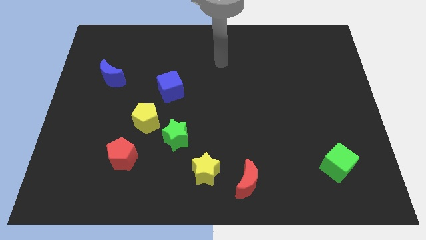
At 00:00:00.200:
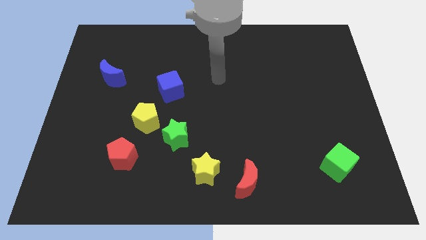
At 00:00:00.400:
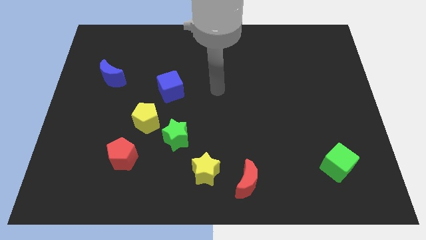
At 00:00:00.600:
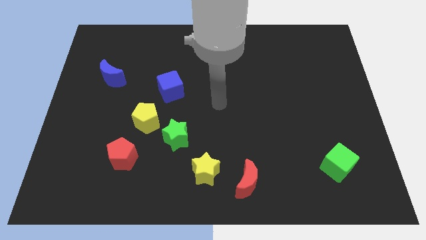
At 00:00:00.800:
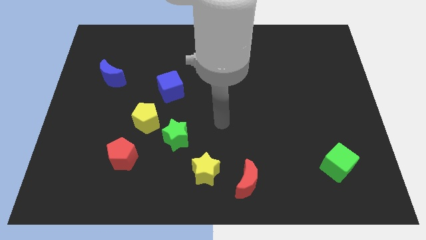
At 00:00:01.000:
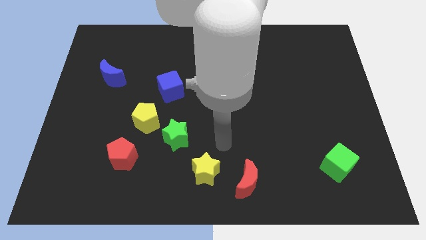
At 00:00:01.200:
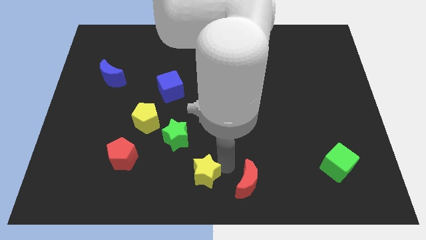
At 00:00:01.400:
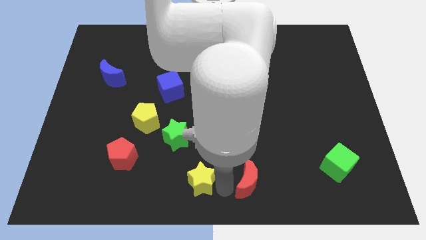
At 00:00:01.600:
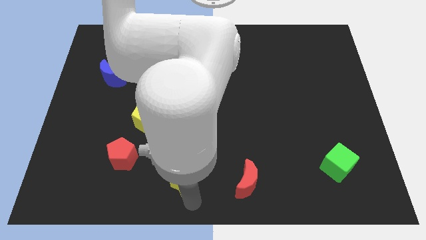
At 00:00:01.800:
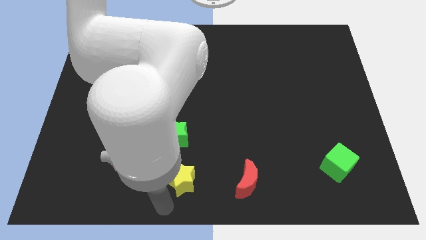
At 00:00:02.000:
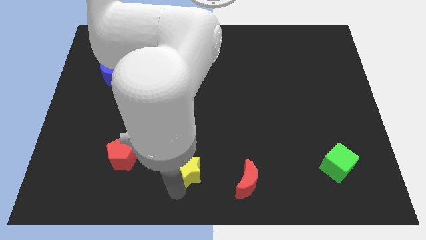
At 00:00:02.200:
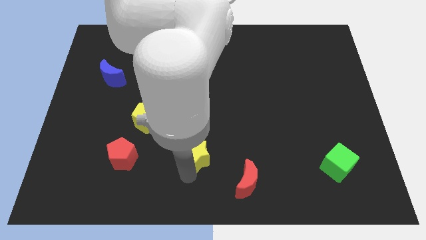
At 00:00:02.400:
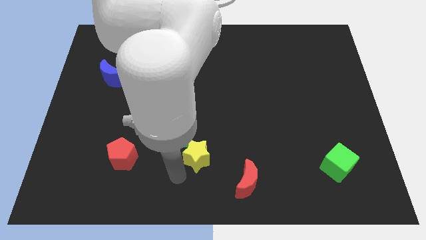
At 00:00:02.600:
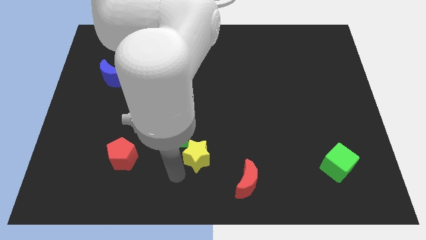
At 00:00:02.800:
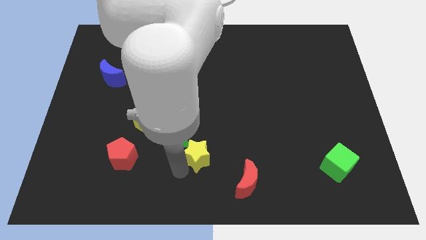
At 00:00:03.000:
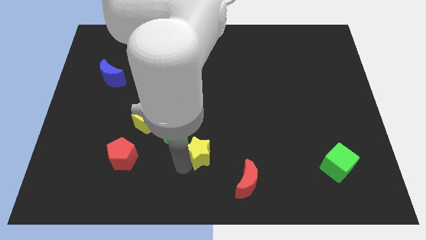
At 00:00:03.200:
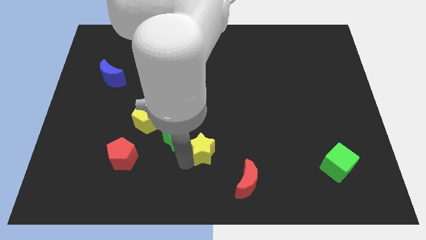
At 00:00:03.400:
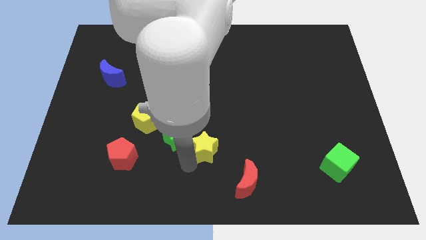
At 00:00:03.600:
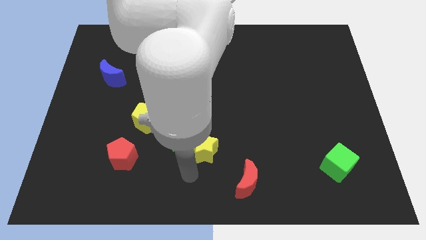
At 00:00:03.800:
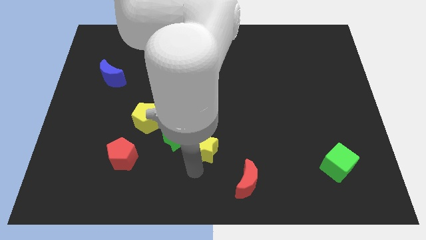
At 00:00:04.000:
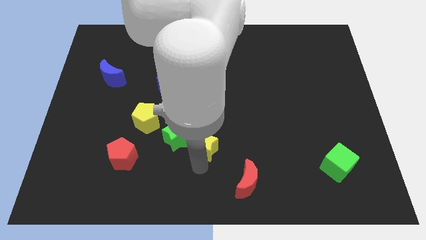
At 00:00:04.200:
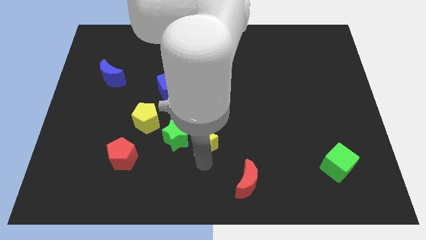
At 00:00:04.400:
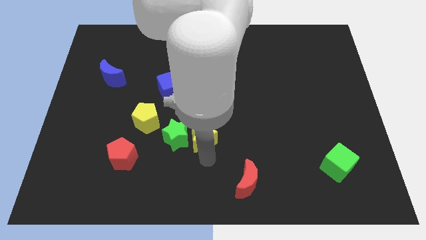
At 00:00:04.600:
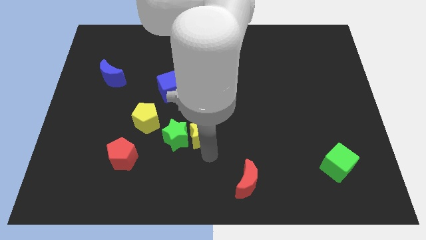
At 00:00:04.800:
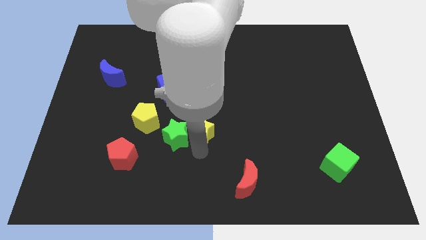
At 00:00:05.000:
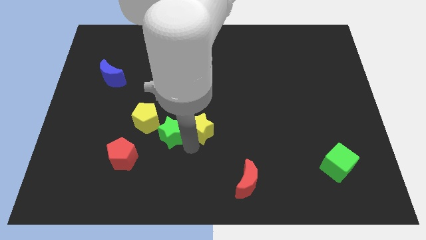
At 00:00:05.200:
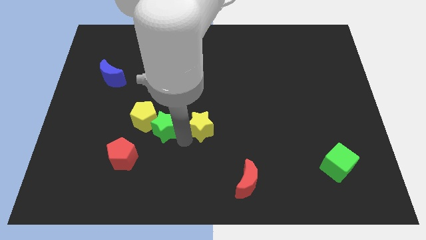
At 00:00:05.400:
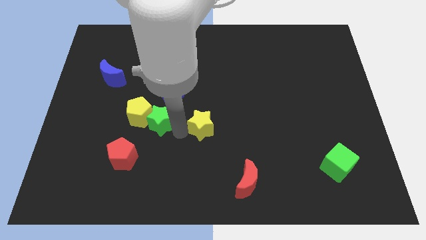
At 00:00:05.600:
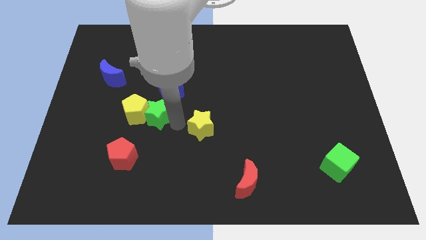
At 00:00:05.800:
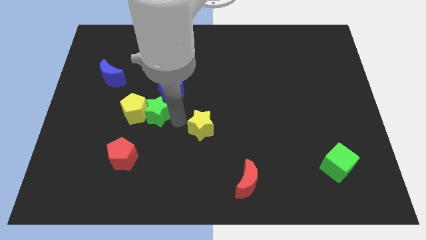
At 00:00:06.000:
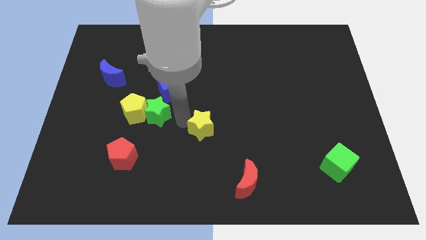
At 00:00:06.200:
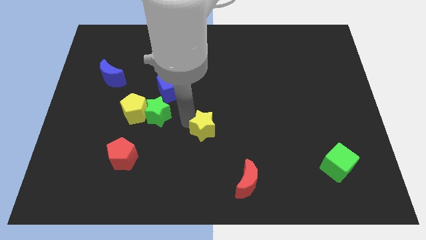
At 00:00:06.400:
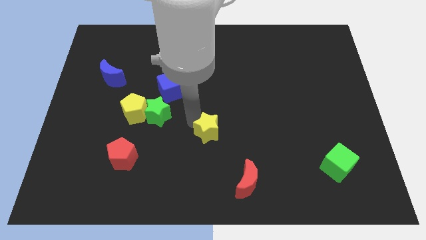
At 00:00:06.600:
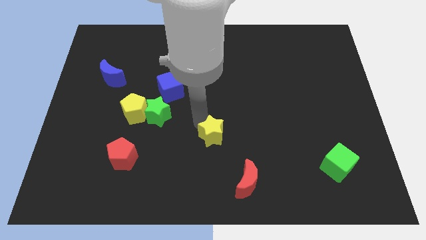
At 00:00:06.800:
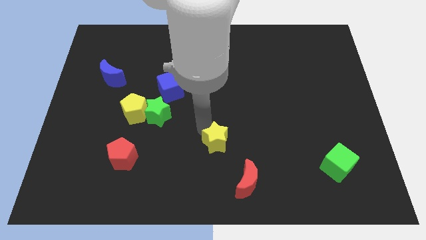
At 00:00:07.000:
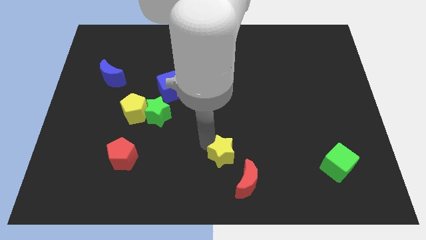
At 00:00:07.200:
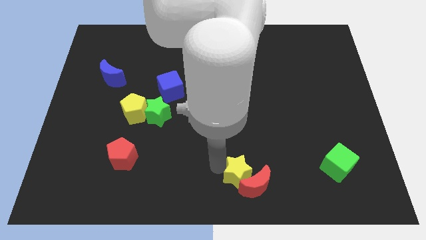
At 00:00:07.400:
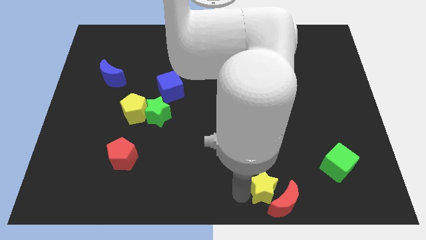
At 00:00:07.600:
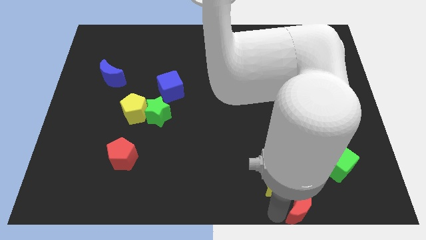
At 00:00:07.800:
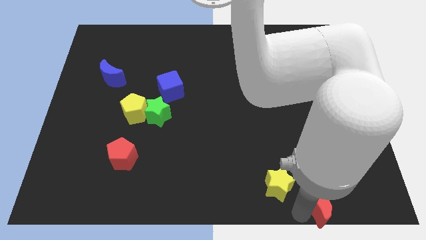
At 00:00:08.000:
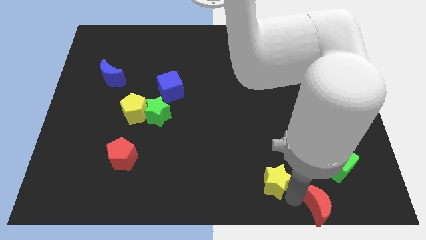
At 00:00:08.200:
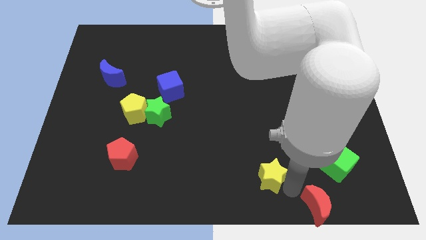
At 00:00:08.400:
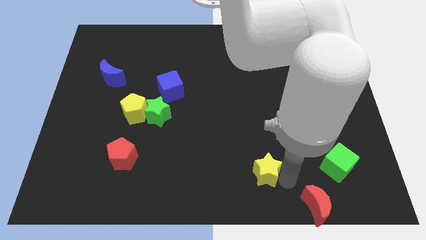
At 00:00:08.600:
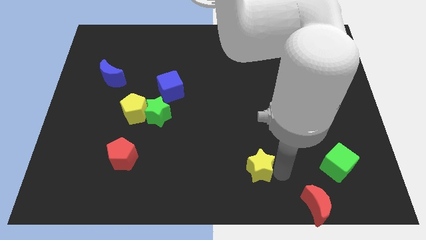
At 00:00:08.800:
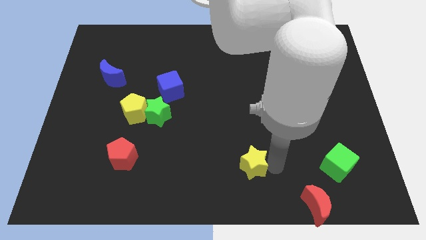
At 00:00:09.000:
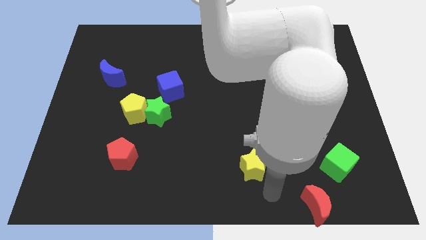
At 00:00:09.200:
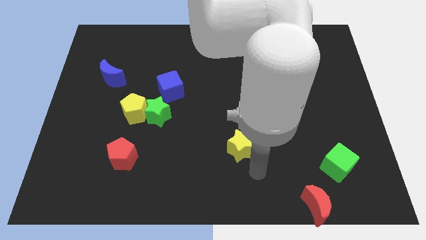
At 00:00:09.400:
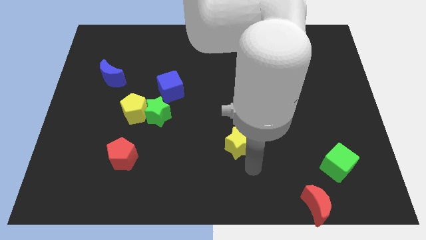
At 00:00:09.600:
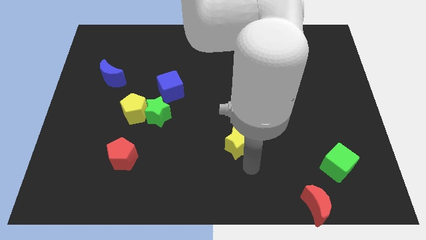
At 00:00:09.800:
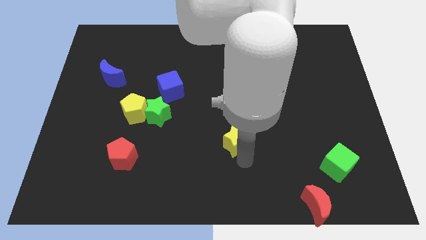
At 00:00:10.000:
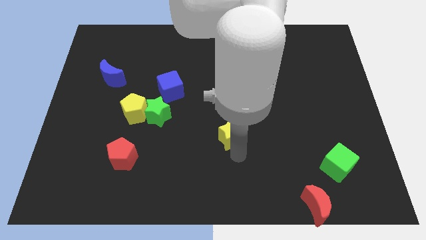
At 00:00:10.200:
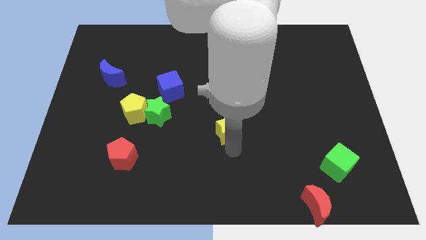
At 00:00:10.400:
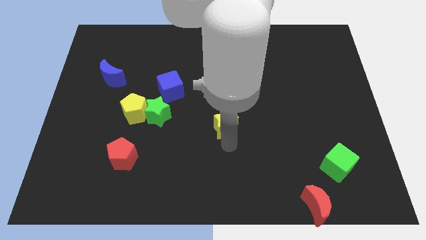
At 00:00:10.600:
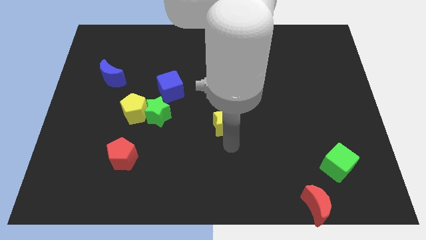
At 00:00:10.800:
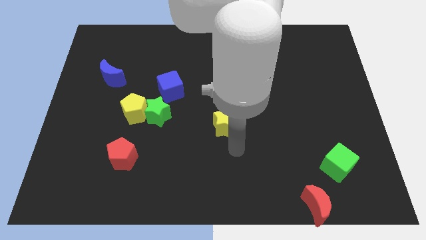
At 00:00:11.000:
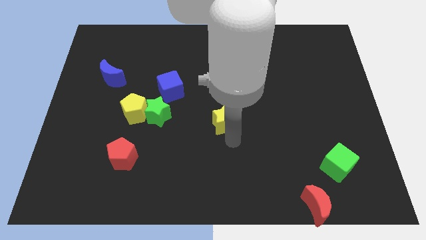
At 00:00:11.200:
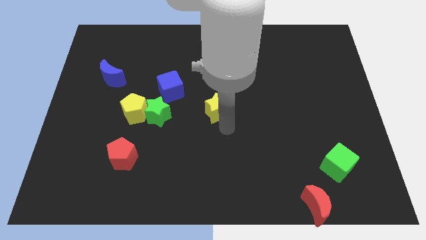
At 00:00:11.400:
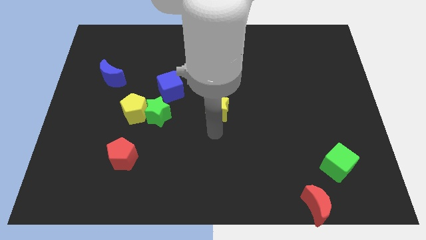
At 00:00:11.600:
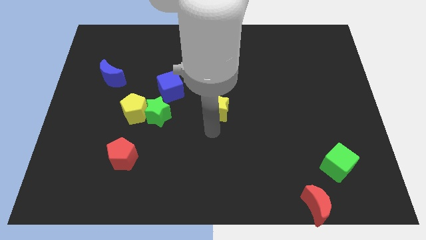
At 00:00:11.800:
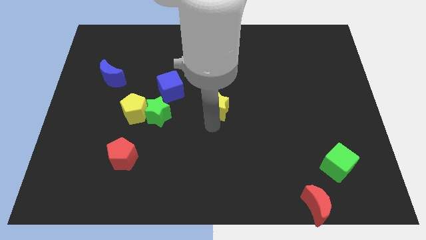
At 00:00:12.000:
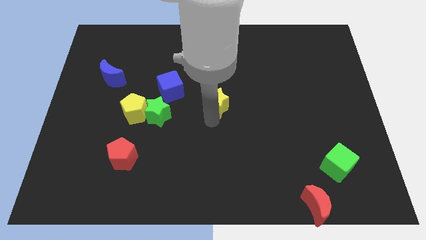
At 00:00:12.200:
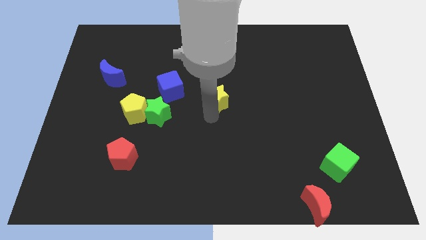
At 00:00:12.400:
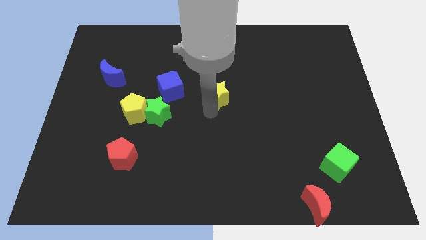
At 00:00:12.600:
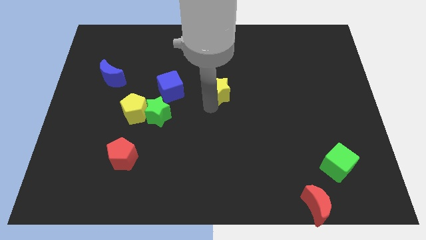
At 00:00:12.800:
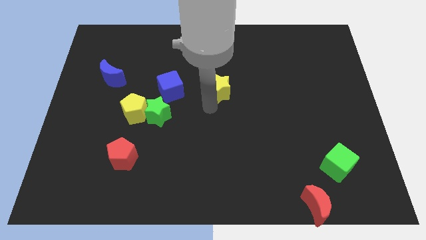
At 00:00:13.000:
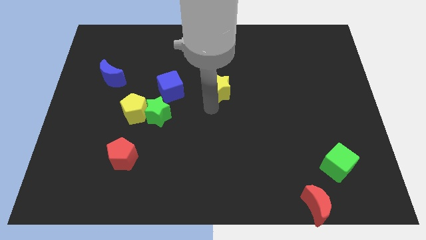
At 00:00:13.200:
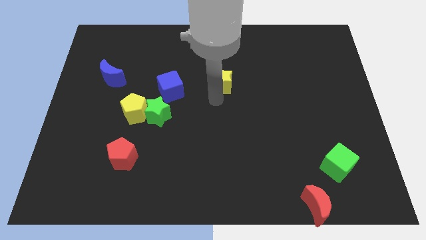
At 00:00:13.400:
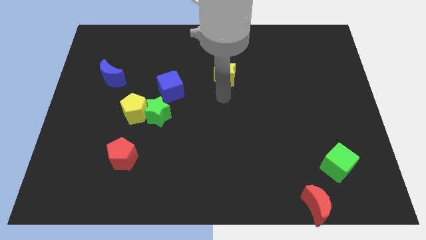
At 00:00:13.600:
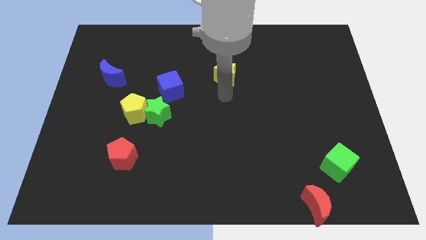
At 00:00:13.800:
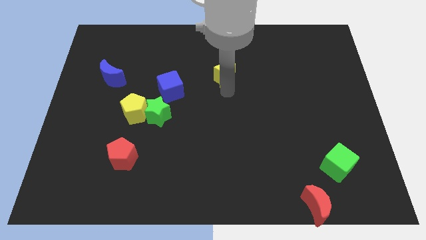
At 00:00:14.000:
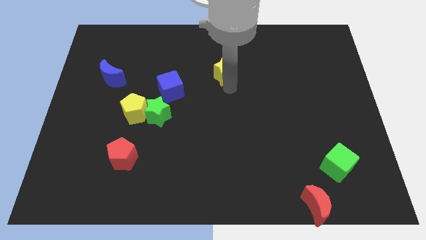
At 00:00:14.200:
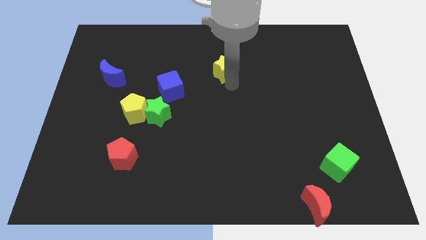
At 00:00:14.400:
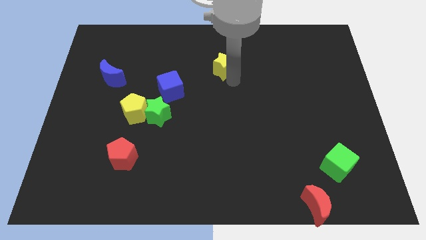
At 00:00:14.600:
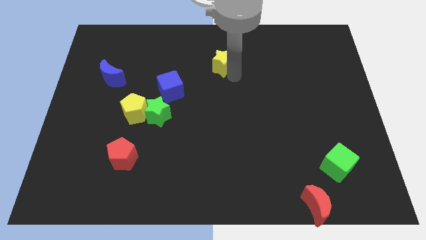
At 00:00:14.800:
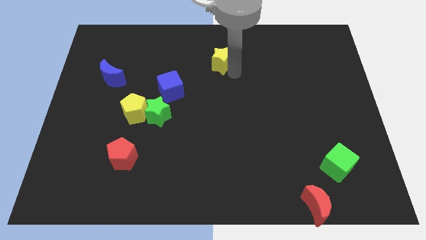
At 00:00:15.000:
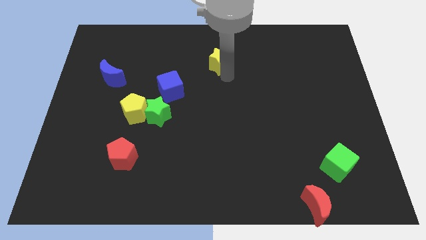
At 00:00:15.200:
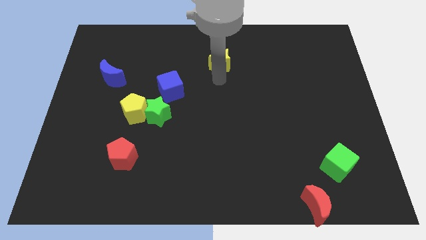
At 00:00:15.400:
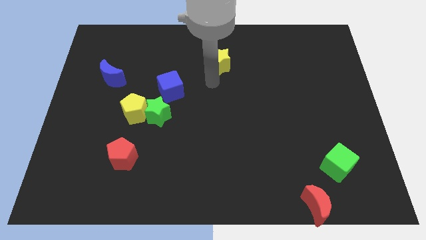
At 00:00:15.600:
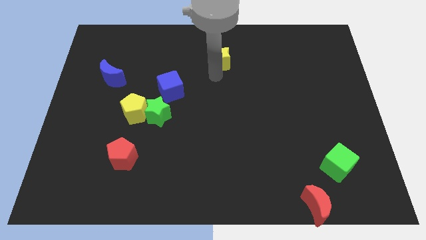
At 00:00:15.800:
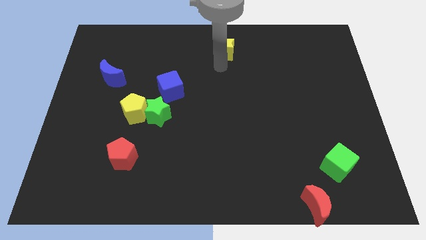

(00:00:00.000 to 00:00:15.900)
move the yellow star to the top side
